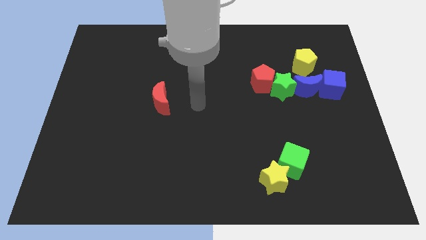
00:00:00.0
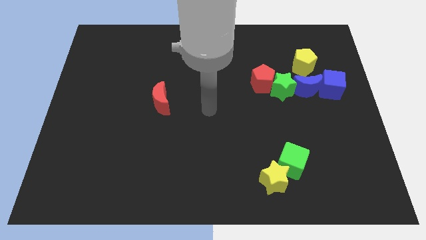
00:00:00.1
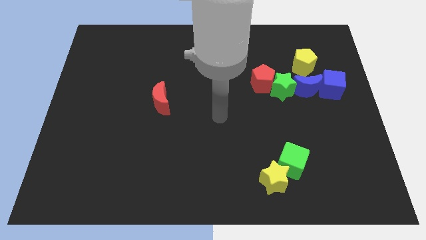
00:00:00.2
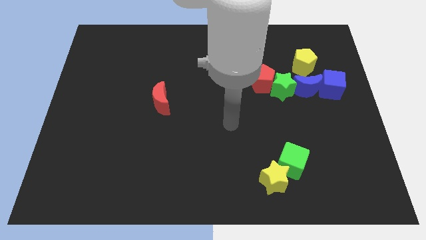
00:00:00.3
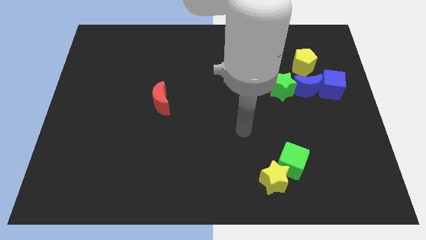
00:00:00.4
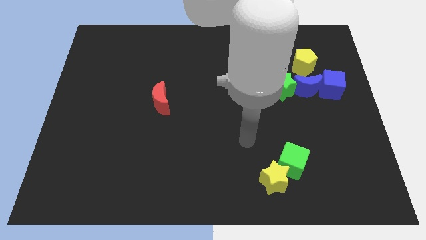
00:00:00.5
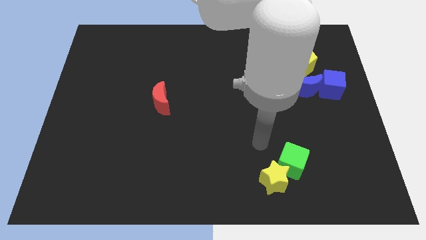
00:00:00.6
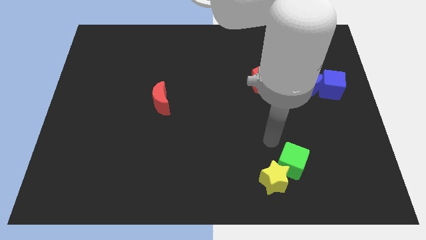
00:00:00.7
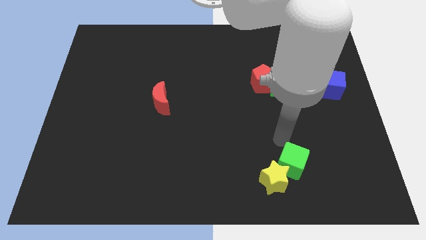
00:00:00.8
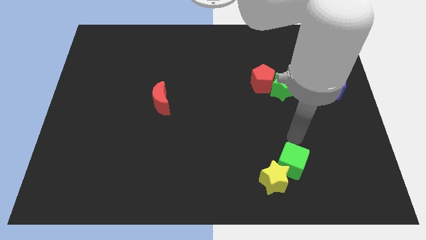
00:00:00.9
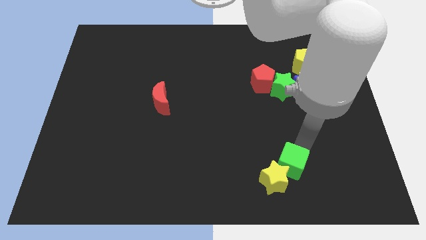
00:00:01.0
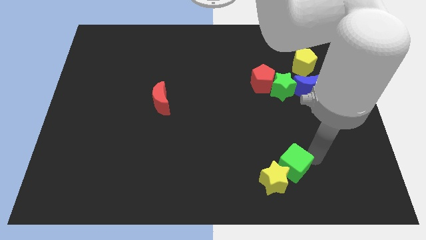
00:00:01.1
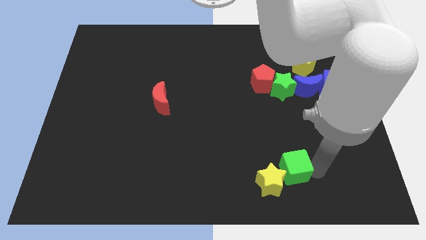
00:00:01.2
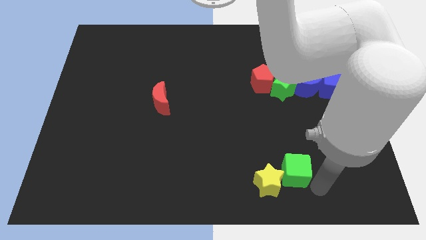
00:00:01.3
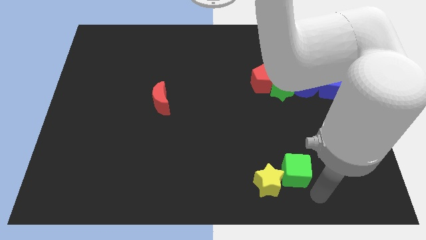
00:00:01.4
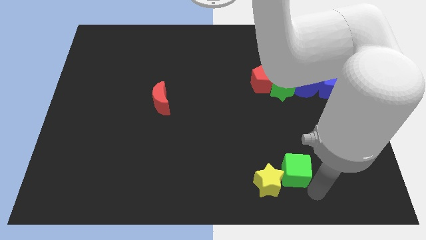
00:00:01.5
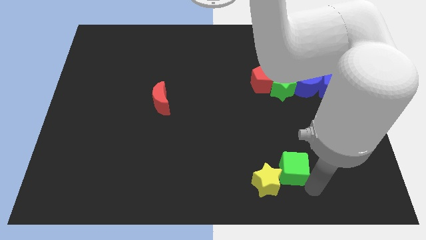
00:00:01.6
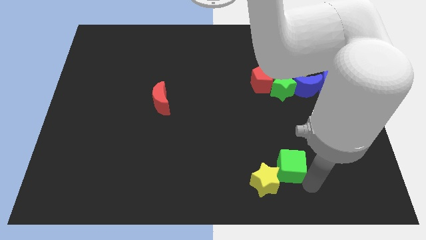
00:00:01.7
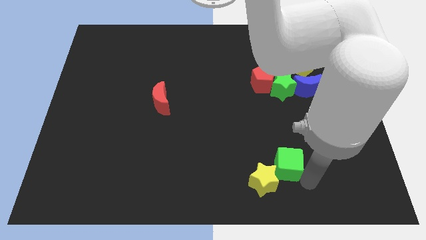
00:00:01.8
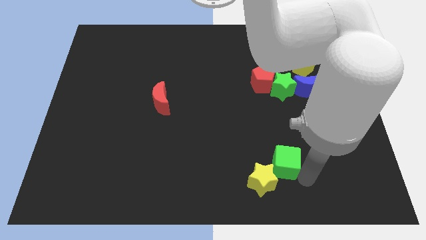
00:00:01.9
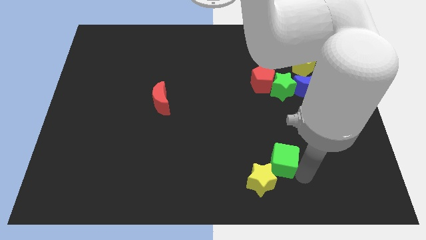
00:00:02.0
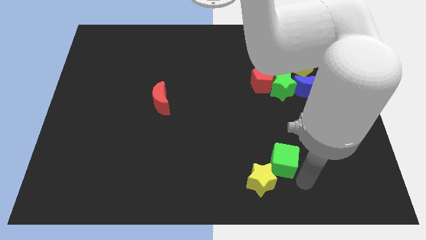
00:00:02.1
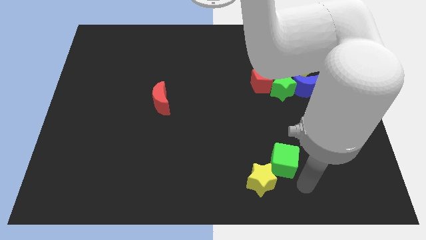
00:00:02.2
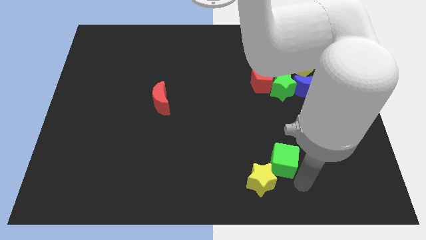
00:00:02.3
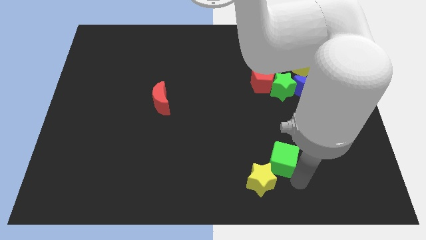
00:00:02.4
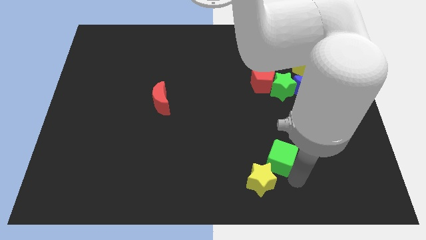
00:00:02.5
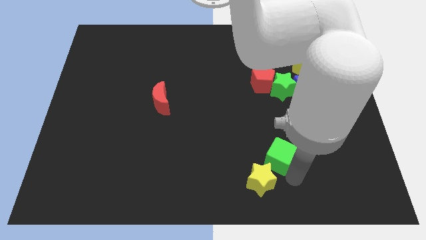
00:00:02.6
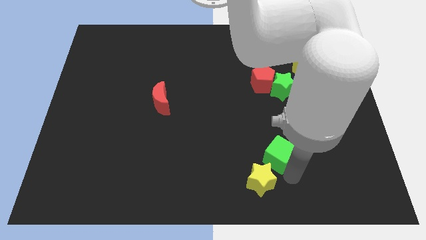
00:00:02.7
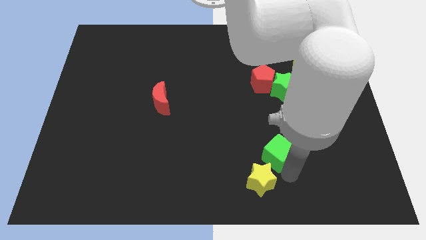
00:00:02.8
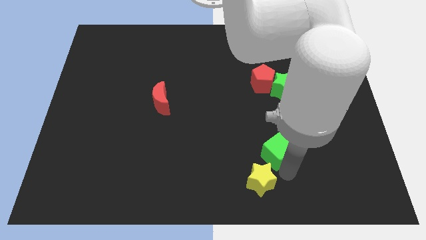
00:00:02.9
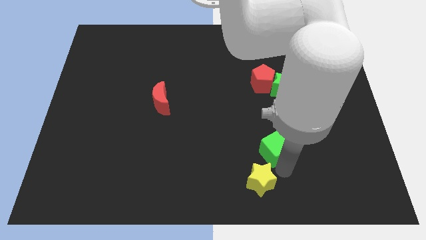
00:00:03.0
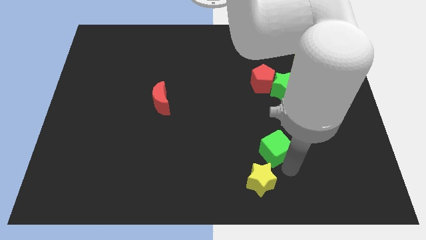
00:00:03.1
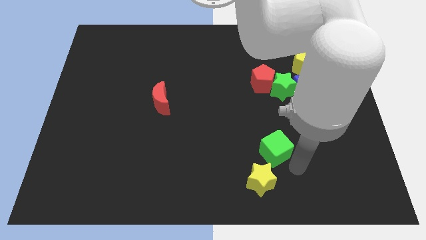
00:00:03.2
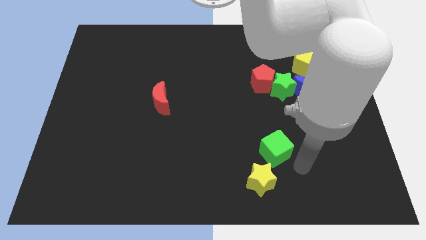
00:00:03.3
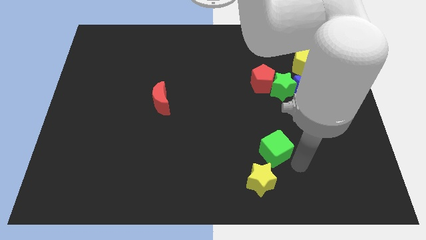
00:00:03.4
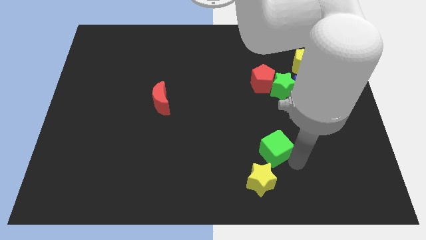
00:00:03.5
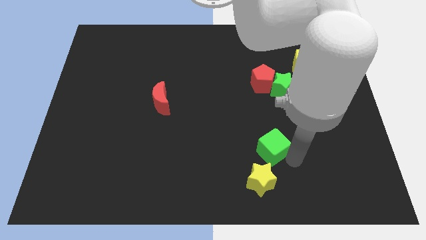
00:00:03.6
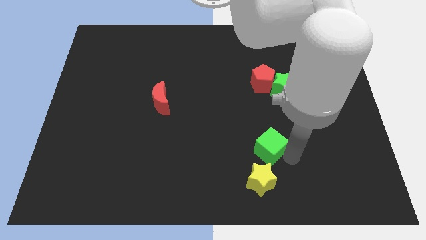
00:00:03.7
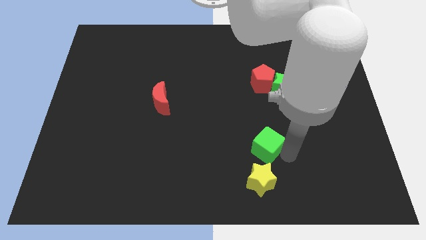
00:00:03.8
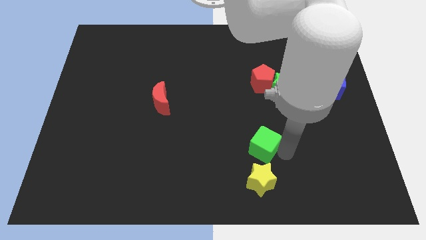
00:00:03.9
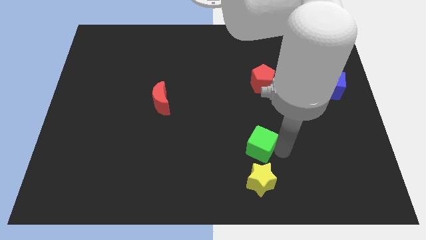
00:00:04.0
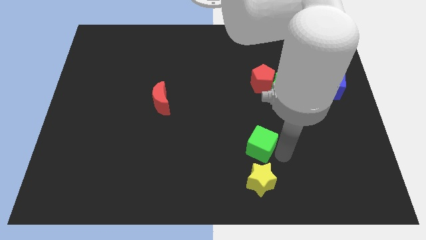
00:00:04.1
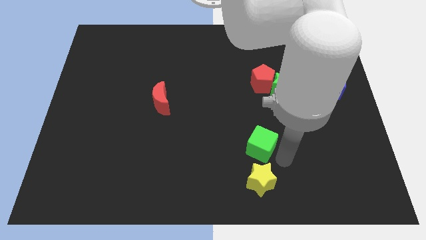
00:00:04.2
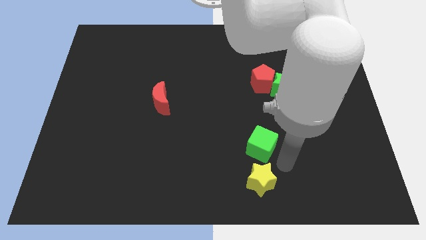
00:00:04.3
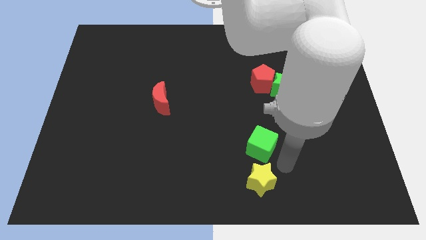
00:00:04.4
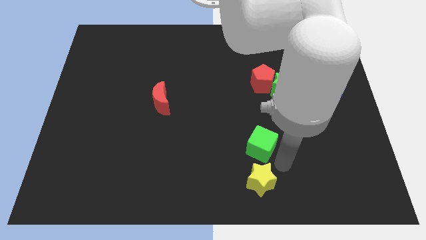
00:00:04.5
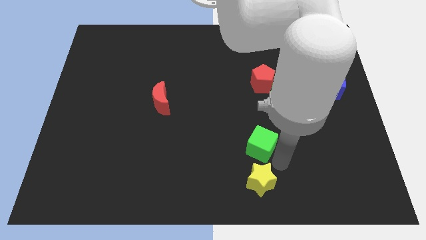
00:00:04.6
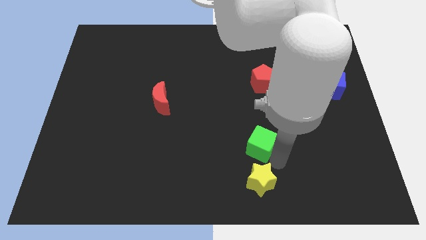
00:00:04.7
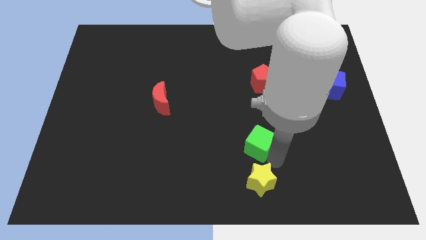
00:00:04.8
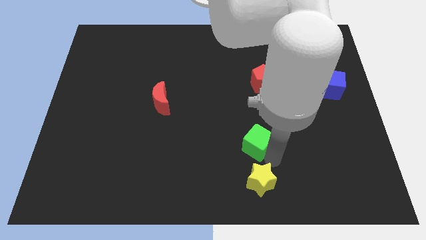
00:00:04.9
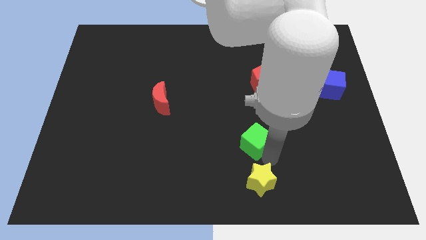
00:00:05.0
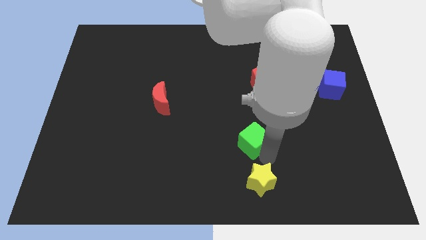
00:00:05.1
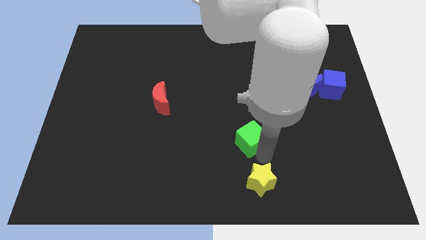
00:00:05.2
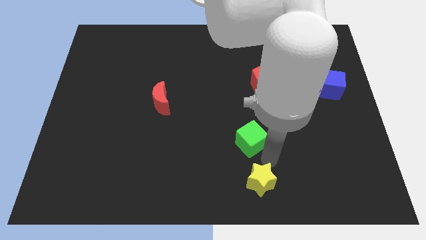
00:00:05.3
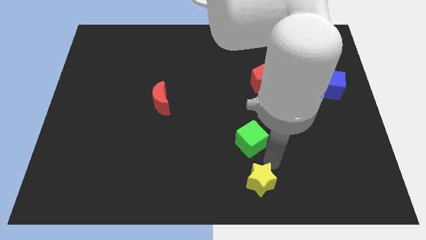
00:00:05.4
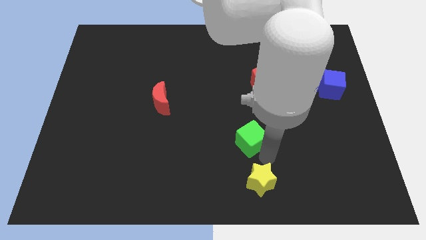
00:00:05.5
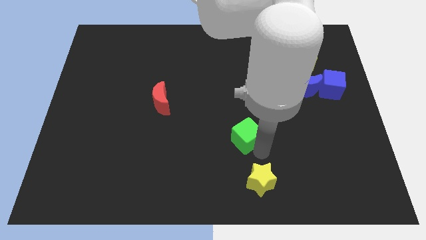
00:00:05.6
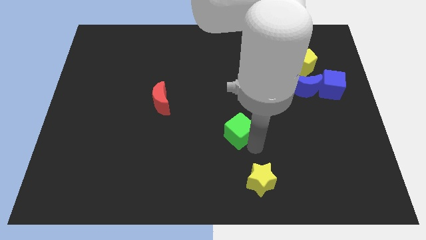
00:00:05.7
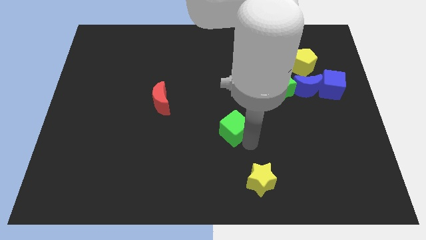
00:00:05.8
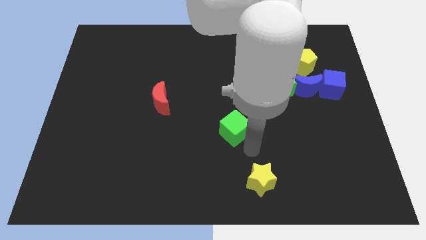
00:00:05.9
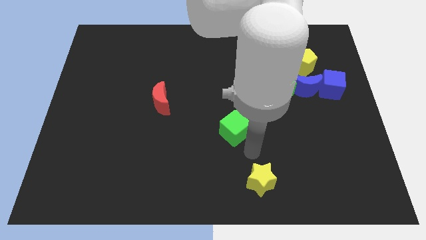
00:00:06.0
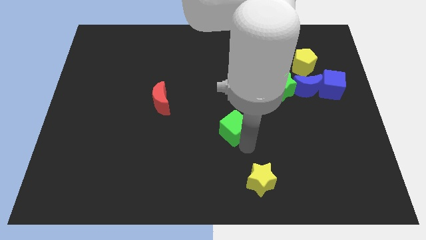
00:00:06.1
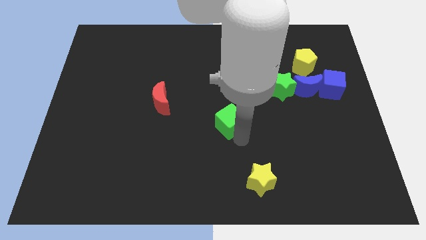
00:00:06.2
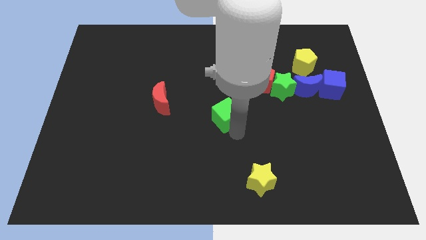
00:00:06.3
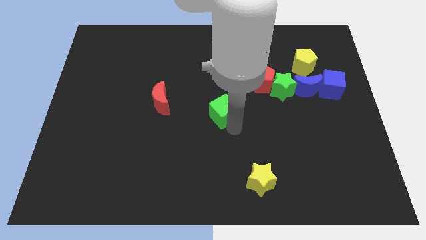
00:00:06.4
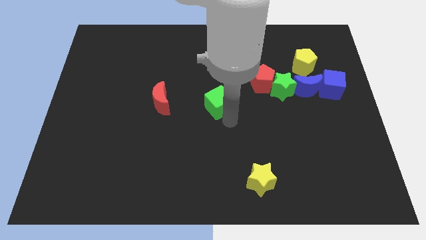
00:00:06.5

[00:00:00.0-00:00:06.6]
slide the green cube upwards and left

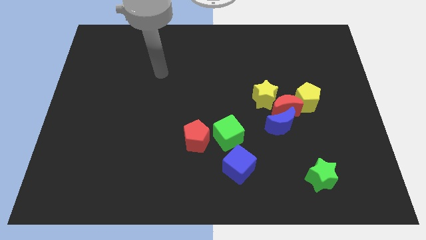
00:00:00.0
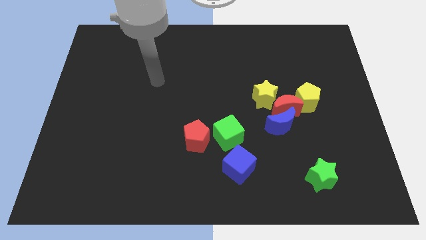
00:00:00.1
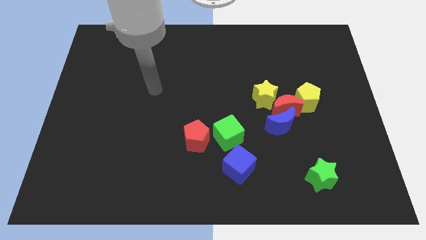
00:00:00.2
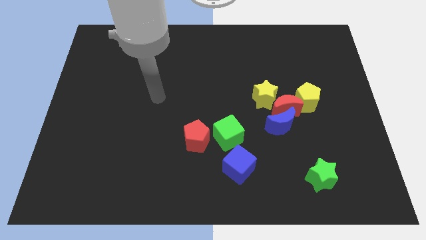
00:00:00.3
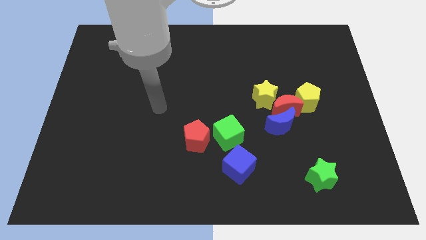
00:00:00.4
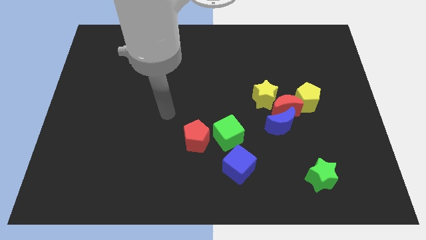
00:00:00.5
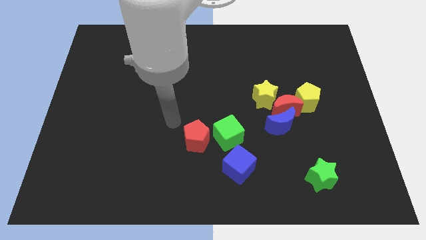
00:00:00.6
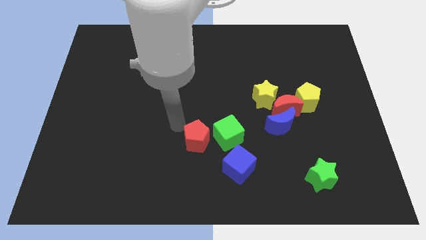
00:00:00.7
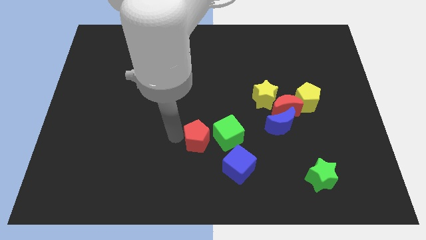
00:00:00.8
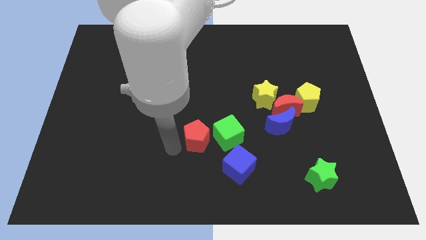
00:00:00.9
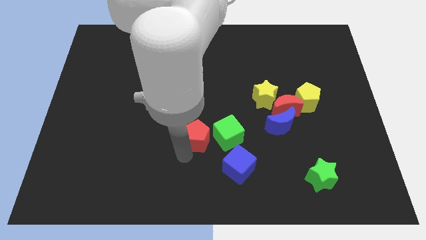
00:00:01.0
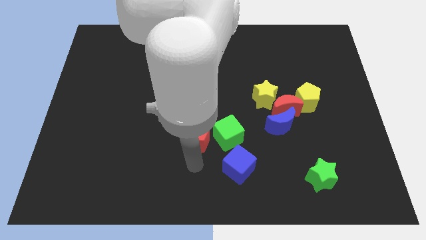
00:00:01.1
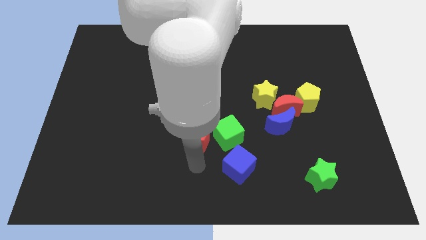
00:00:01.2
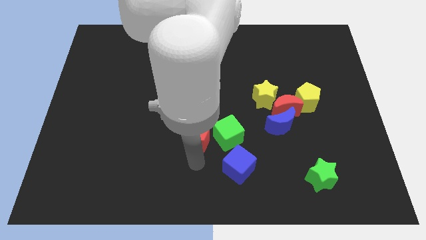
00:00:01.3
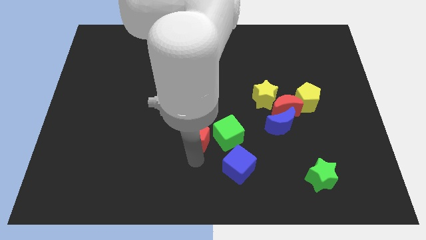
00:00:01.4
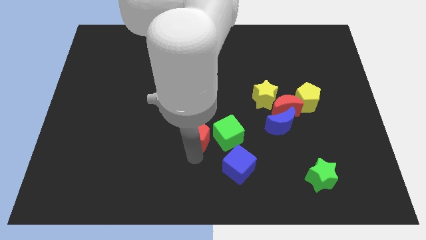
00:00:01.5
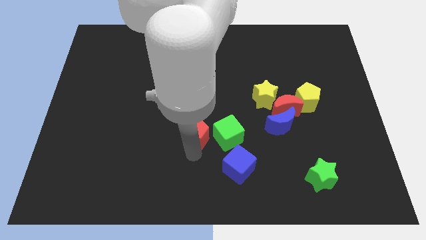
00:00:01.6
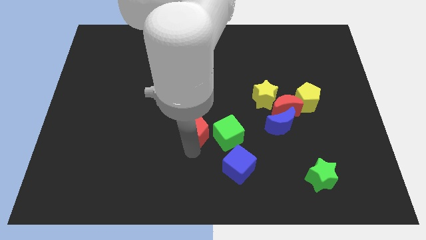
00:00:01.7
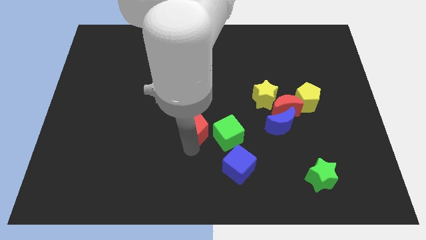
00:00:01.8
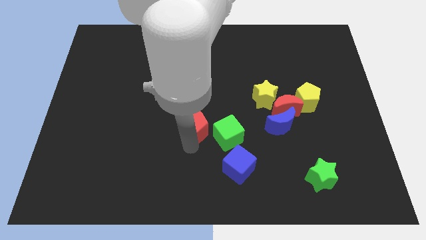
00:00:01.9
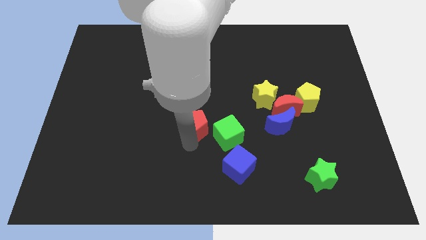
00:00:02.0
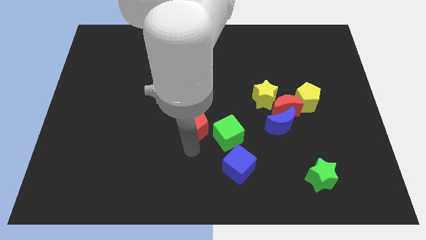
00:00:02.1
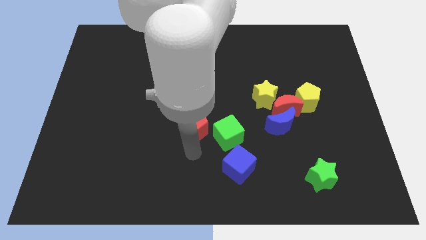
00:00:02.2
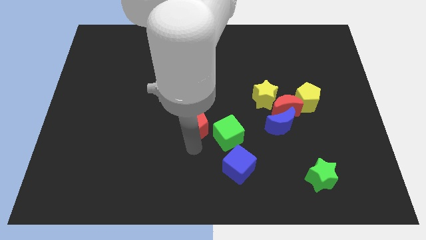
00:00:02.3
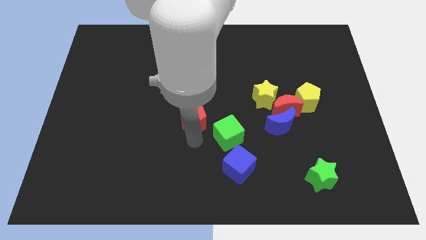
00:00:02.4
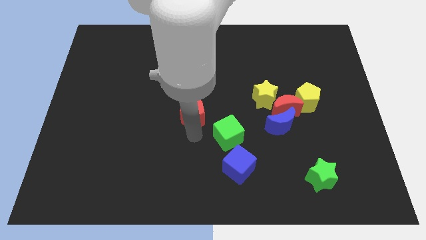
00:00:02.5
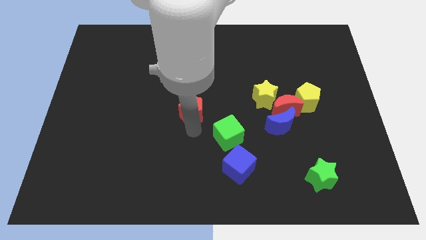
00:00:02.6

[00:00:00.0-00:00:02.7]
slide the red pentagon upwards a little bit
